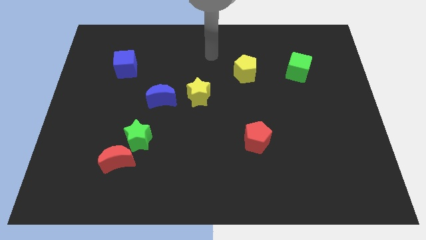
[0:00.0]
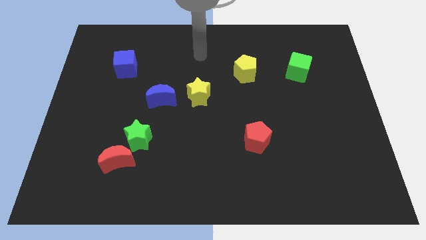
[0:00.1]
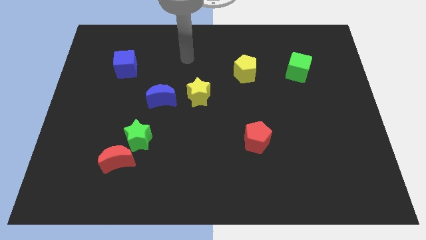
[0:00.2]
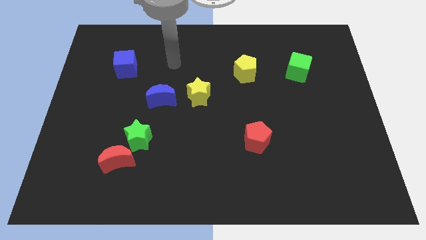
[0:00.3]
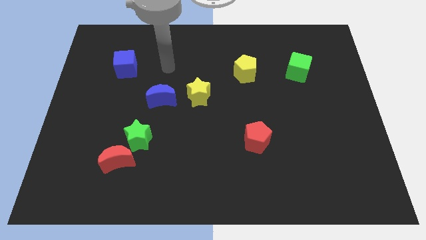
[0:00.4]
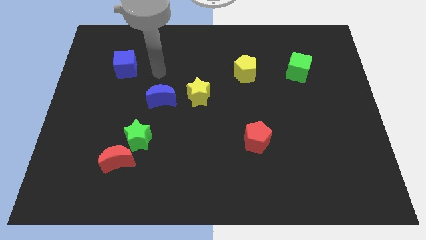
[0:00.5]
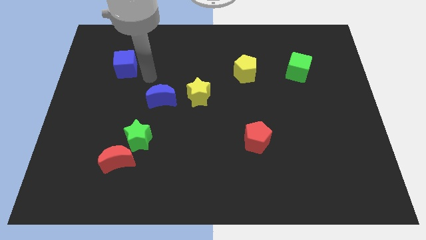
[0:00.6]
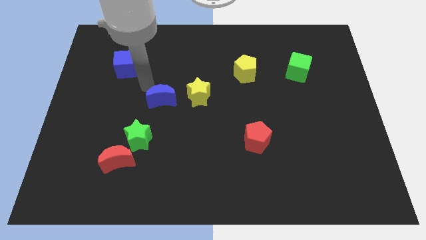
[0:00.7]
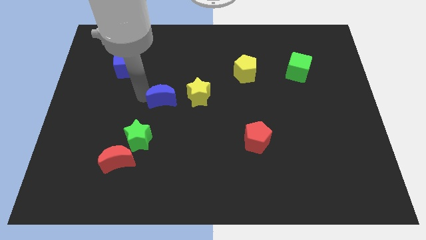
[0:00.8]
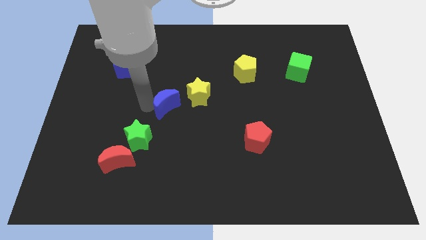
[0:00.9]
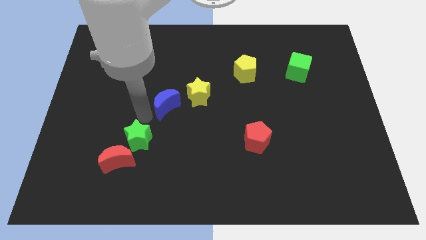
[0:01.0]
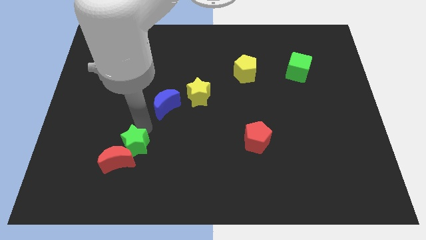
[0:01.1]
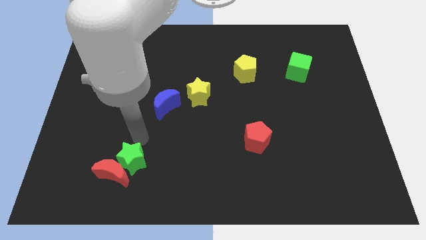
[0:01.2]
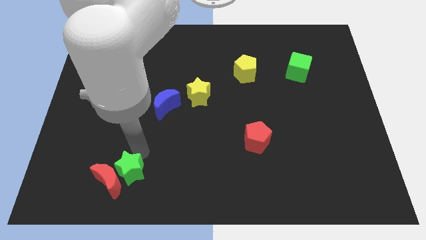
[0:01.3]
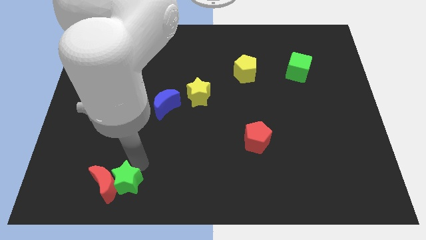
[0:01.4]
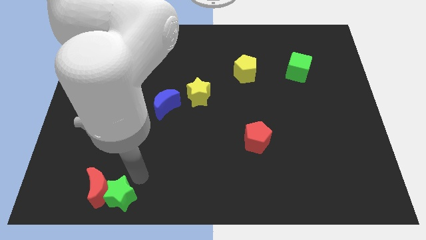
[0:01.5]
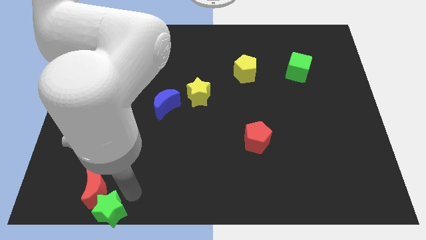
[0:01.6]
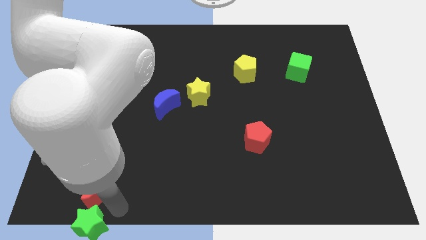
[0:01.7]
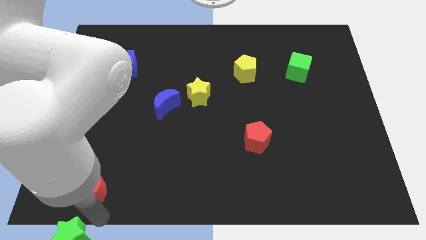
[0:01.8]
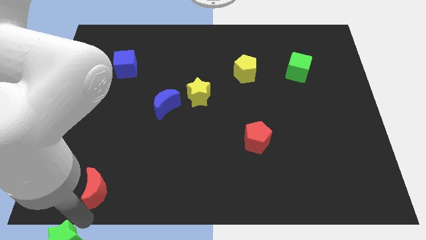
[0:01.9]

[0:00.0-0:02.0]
separate the red moon from the green star

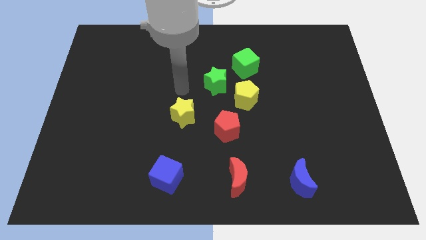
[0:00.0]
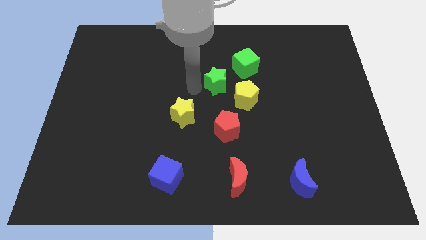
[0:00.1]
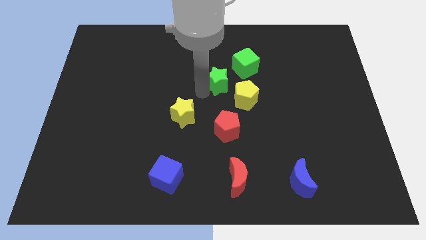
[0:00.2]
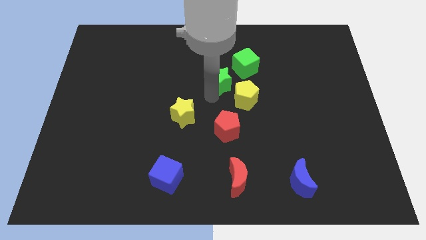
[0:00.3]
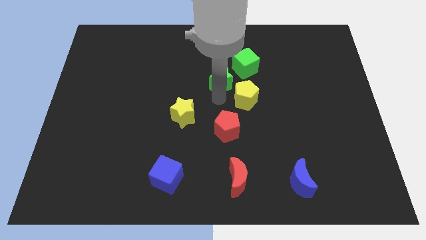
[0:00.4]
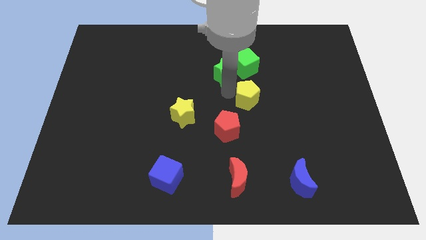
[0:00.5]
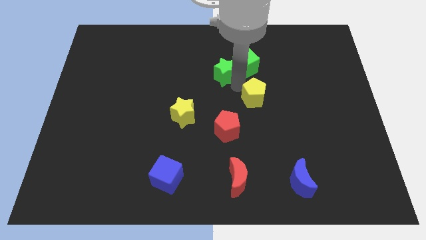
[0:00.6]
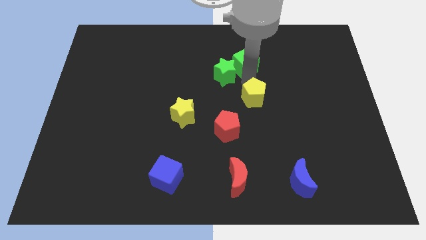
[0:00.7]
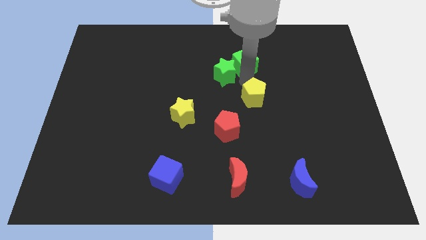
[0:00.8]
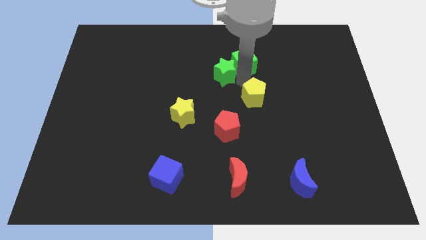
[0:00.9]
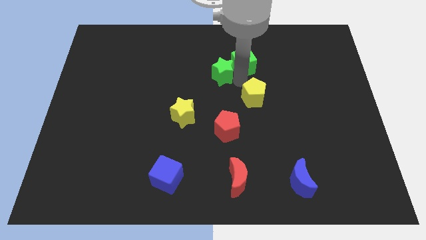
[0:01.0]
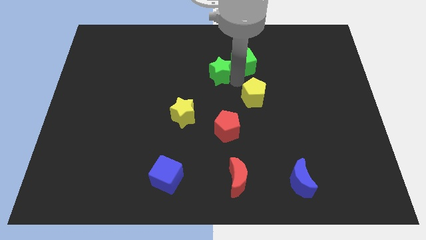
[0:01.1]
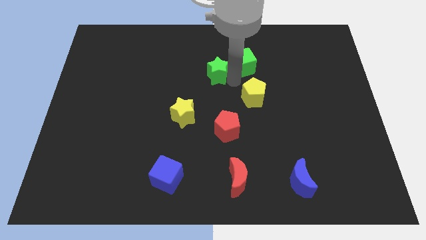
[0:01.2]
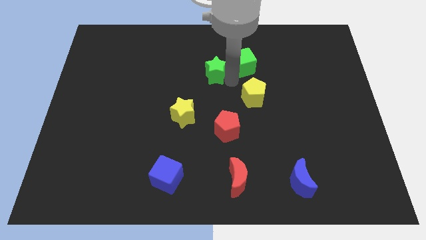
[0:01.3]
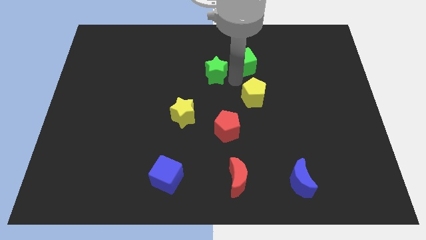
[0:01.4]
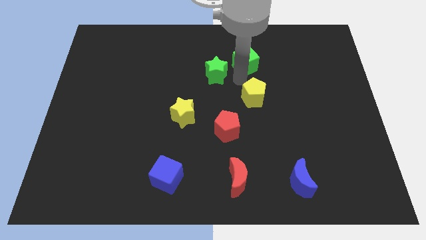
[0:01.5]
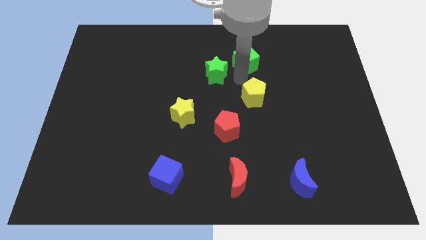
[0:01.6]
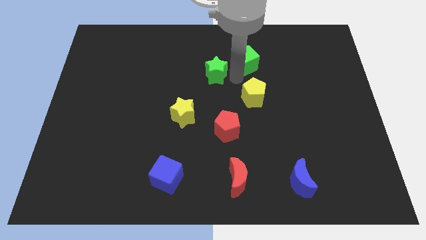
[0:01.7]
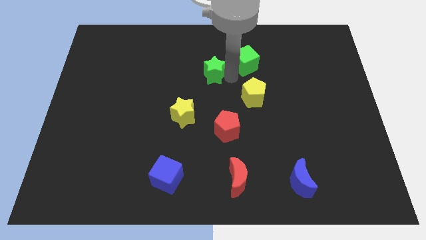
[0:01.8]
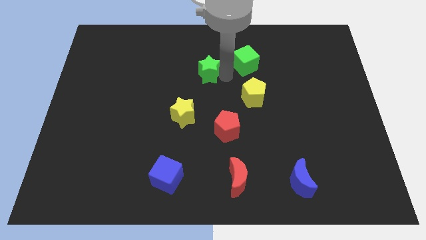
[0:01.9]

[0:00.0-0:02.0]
move the green star away from the yellow pentagon and green cube

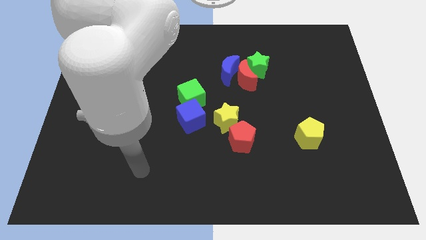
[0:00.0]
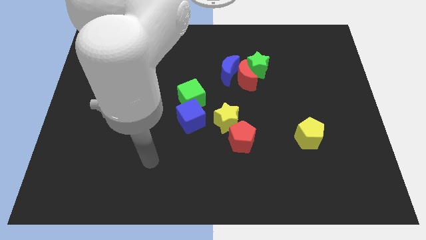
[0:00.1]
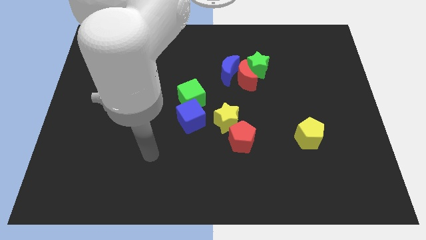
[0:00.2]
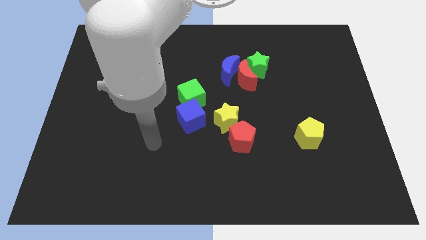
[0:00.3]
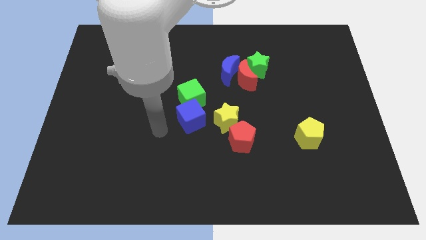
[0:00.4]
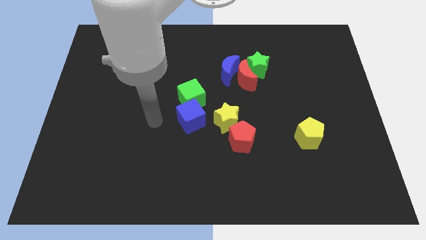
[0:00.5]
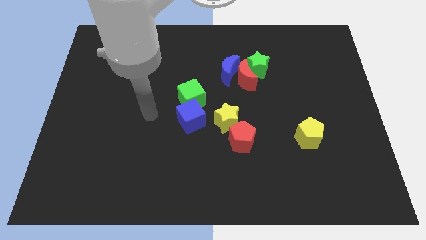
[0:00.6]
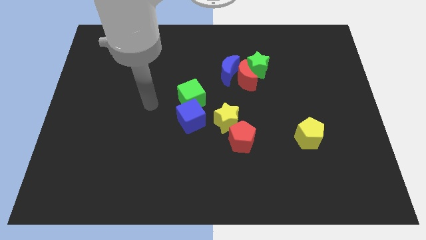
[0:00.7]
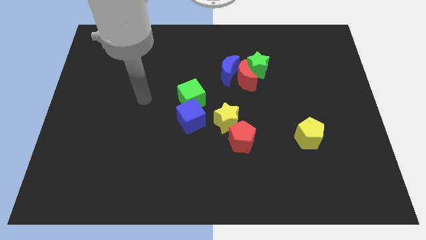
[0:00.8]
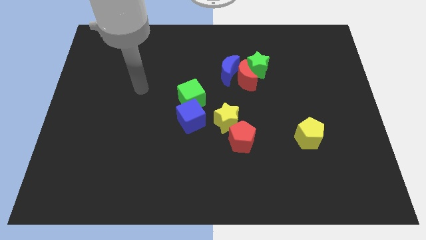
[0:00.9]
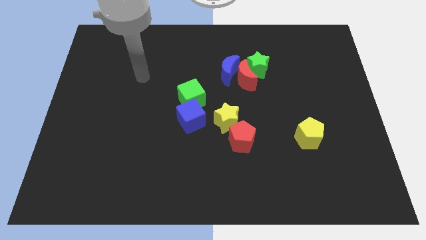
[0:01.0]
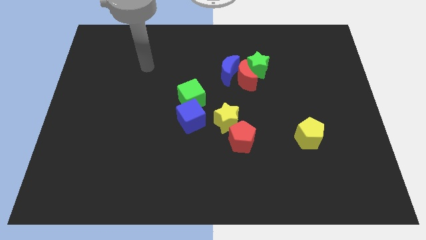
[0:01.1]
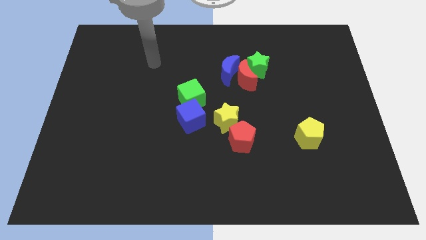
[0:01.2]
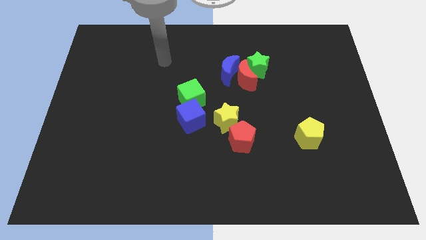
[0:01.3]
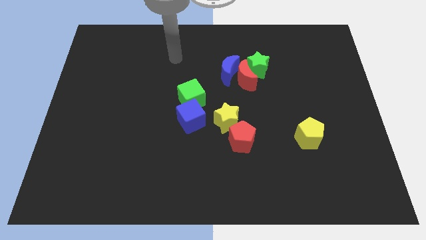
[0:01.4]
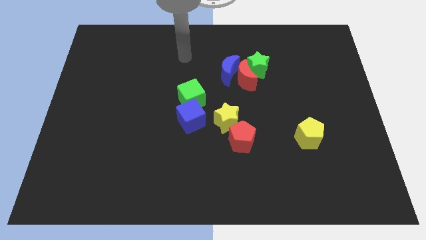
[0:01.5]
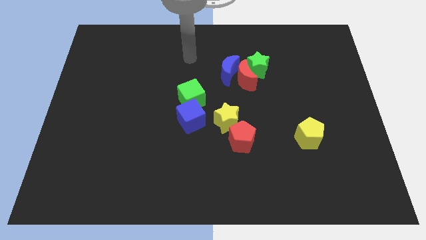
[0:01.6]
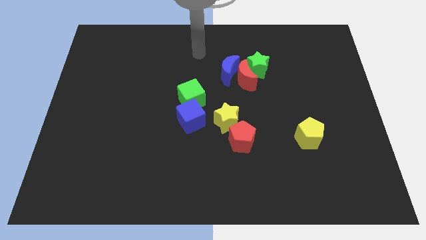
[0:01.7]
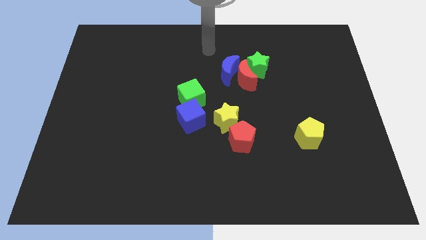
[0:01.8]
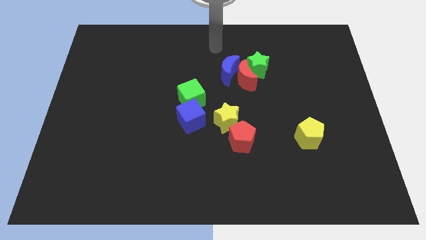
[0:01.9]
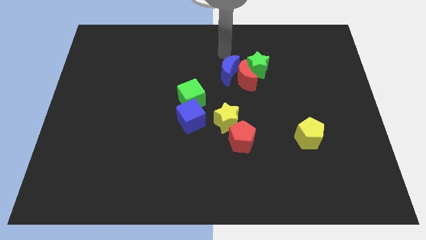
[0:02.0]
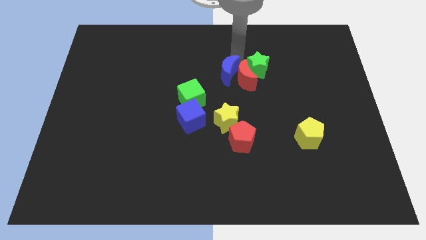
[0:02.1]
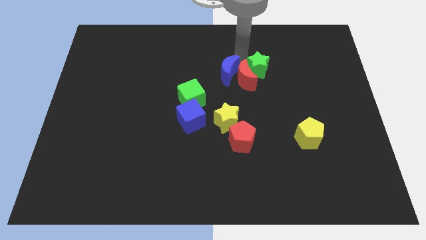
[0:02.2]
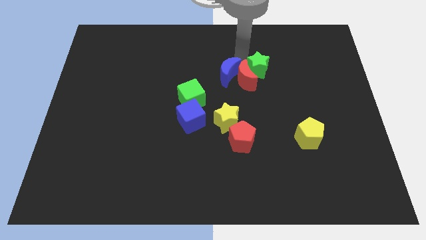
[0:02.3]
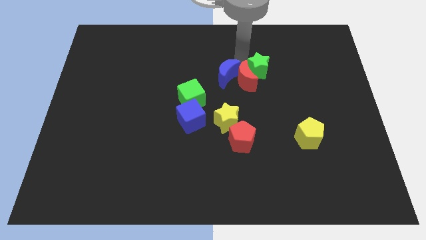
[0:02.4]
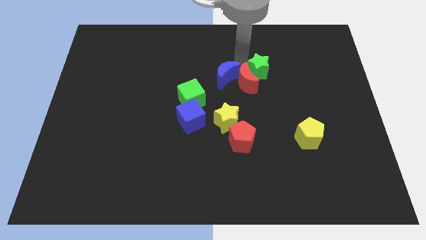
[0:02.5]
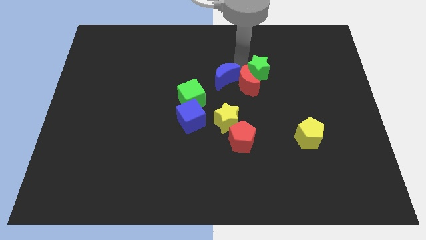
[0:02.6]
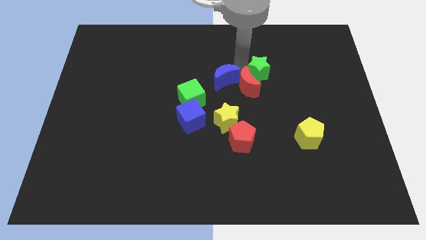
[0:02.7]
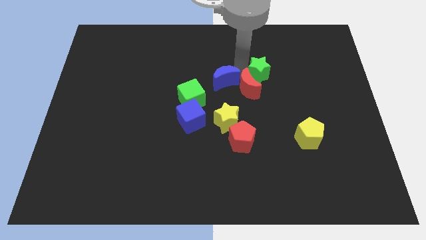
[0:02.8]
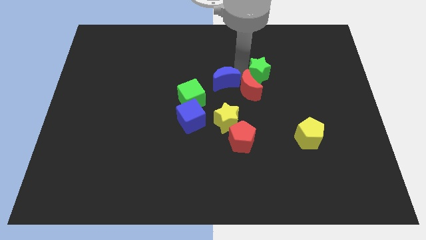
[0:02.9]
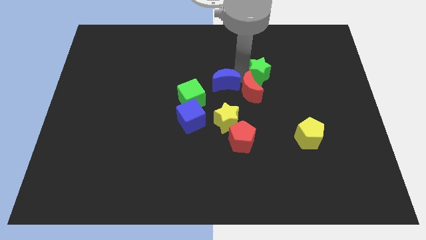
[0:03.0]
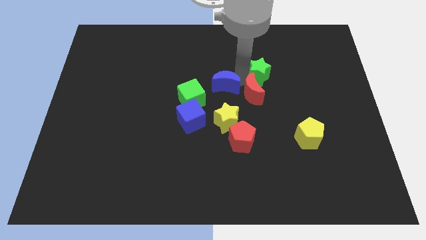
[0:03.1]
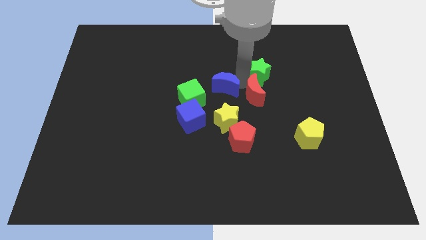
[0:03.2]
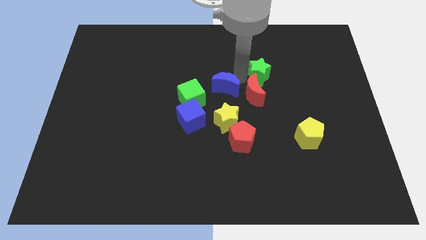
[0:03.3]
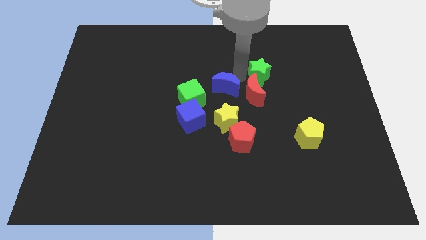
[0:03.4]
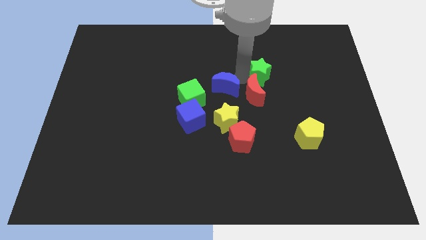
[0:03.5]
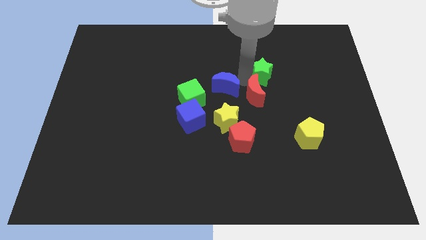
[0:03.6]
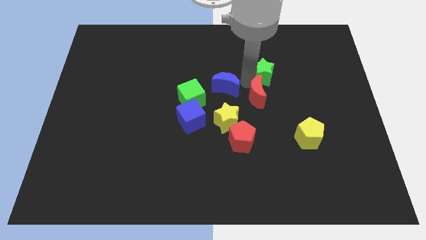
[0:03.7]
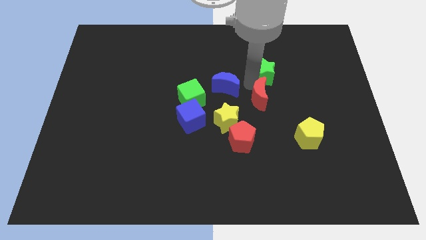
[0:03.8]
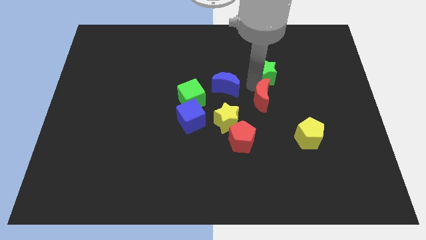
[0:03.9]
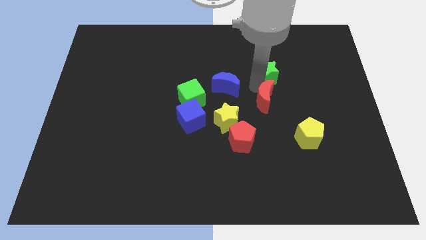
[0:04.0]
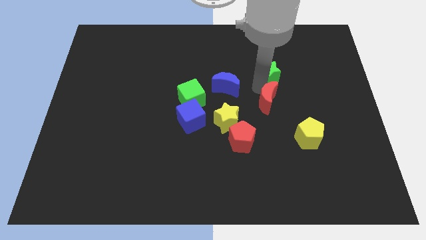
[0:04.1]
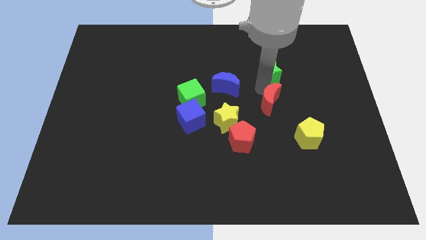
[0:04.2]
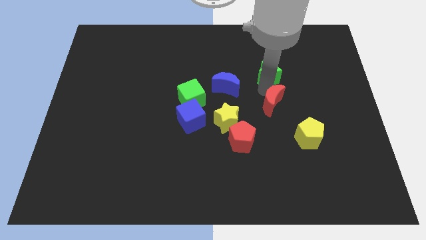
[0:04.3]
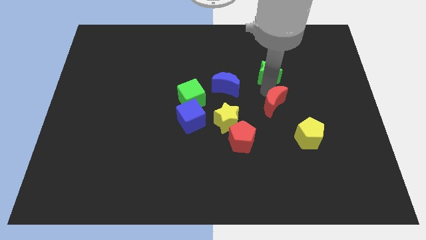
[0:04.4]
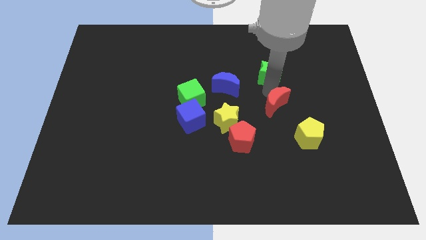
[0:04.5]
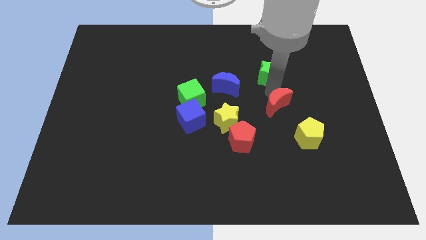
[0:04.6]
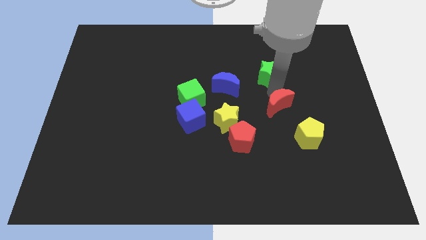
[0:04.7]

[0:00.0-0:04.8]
pull the red moon apart from the blue moon and green star

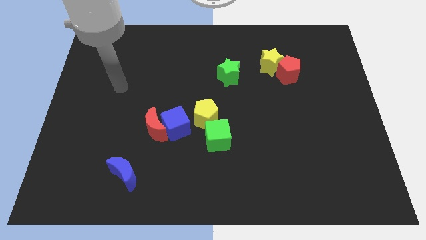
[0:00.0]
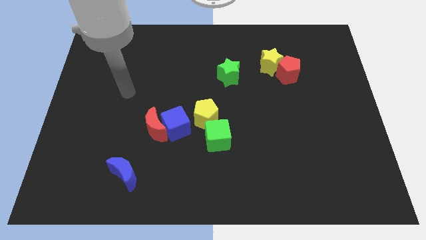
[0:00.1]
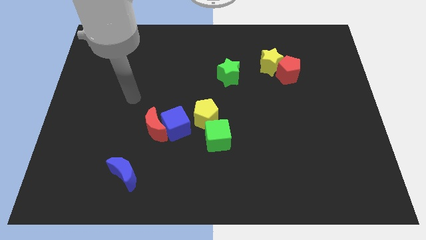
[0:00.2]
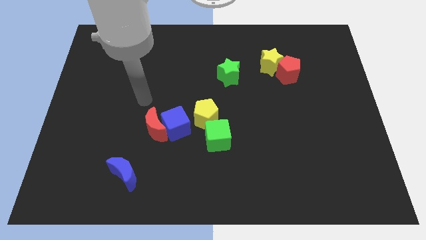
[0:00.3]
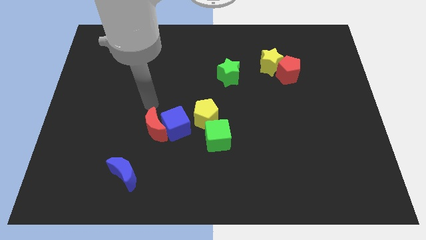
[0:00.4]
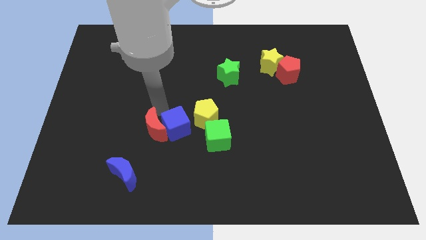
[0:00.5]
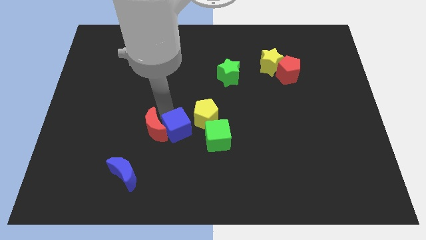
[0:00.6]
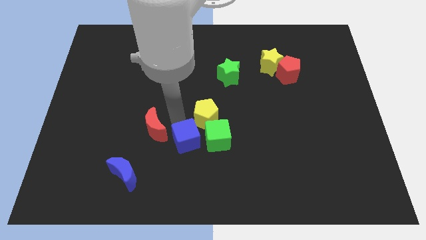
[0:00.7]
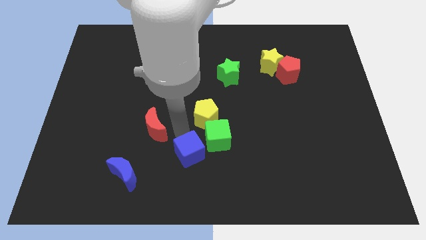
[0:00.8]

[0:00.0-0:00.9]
separate the red moon from the blue cube
